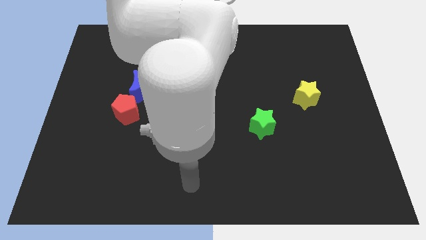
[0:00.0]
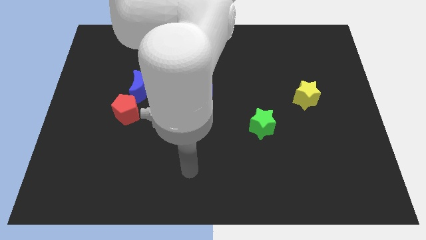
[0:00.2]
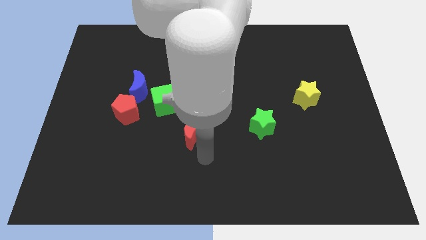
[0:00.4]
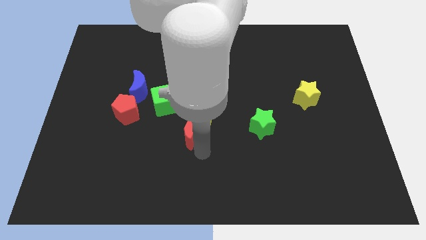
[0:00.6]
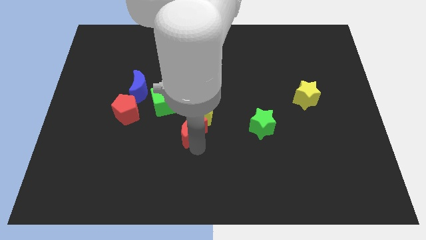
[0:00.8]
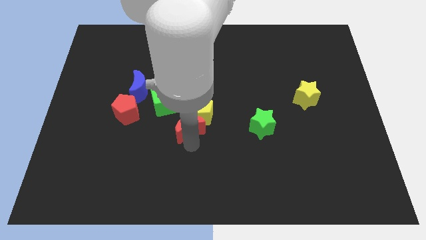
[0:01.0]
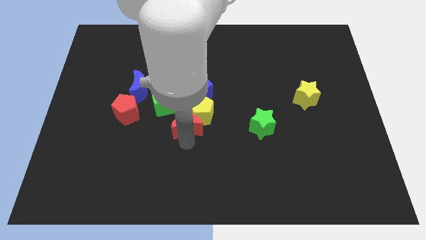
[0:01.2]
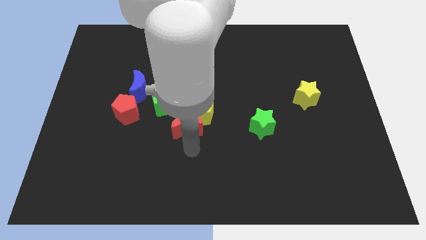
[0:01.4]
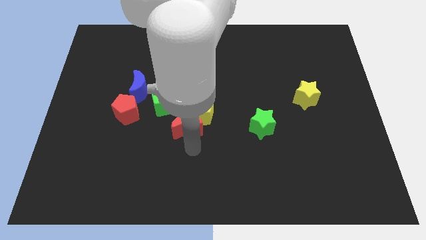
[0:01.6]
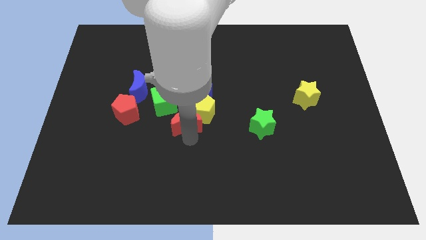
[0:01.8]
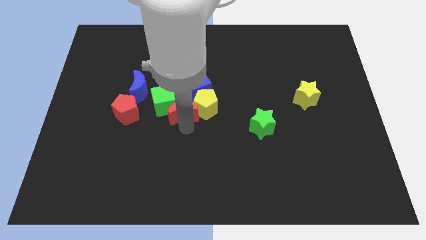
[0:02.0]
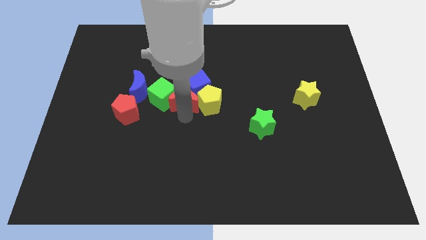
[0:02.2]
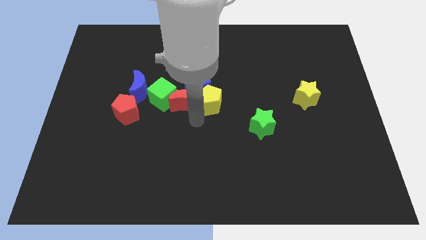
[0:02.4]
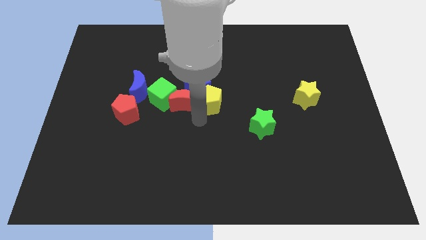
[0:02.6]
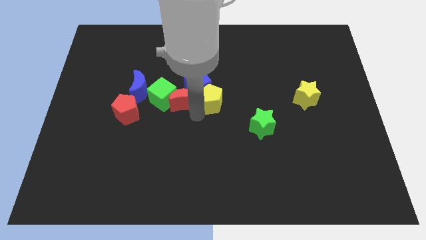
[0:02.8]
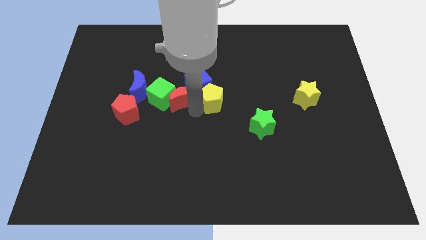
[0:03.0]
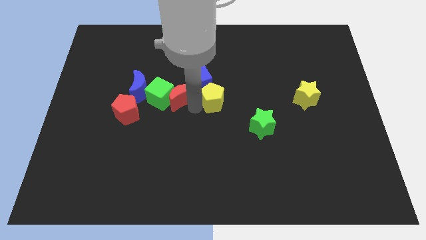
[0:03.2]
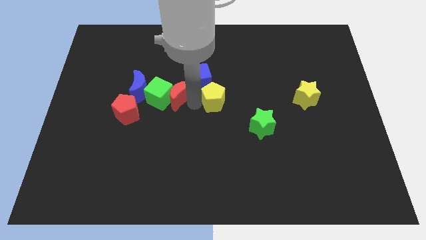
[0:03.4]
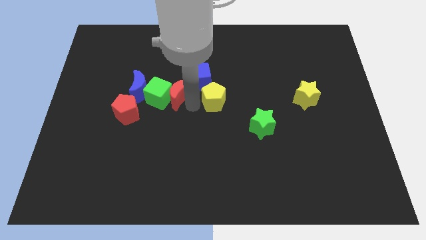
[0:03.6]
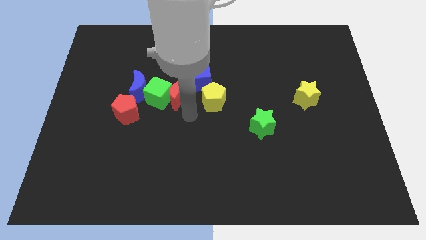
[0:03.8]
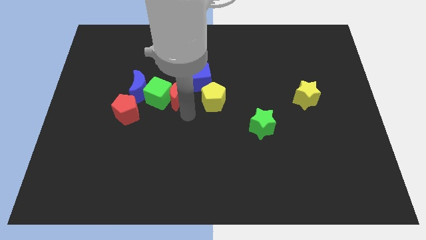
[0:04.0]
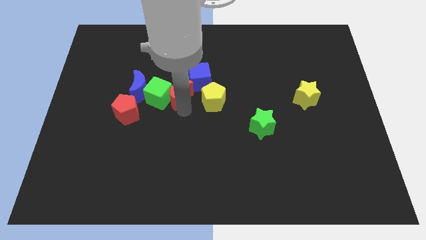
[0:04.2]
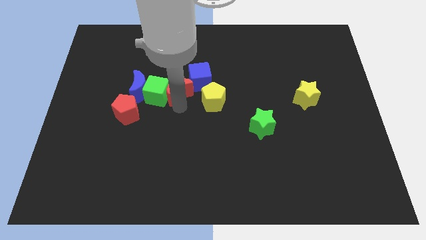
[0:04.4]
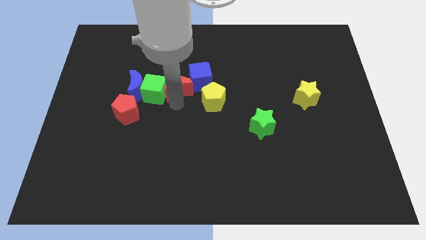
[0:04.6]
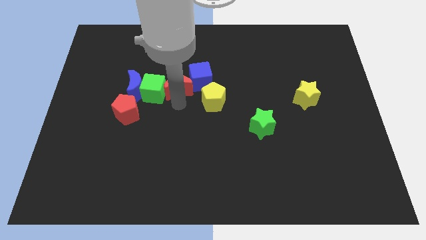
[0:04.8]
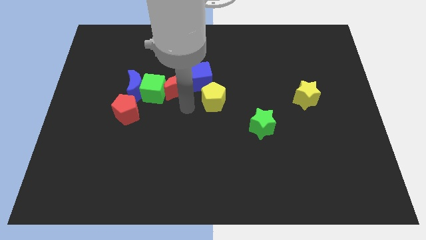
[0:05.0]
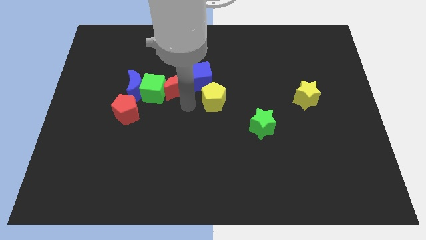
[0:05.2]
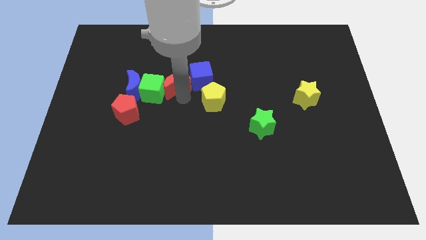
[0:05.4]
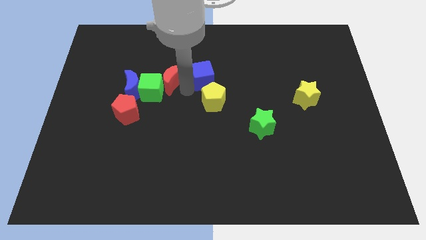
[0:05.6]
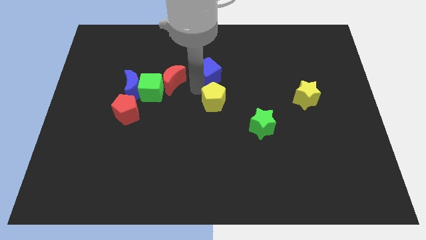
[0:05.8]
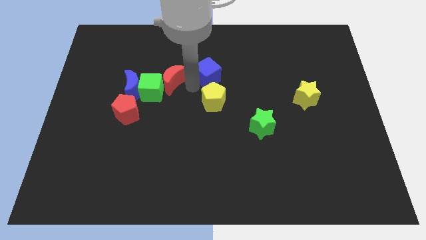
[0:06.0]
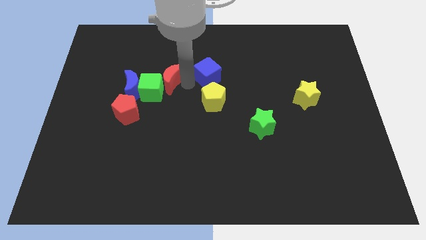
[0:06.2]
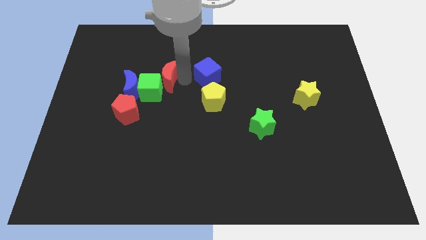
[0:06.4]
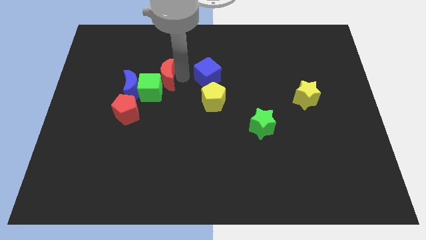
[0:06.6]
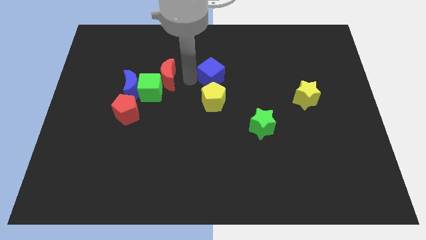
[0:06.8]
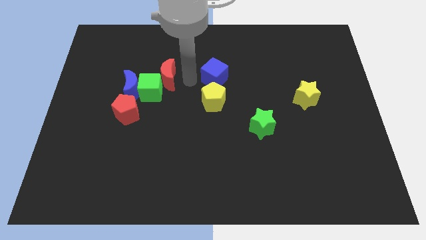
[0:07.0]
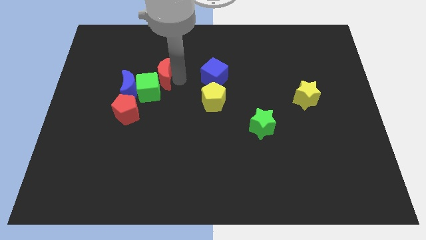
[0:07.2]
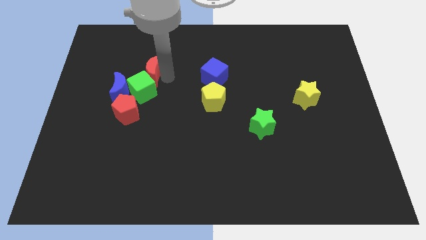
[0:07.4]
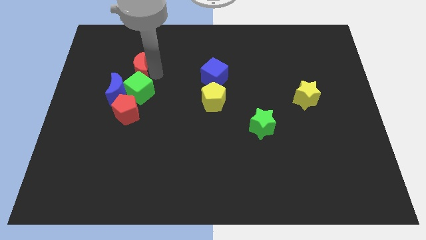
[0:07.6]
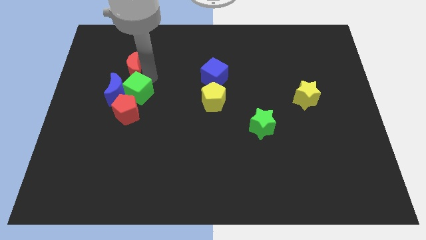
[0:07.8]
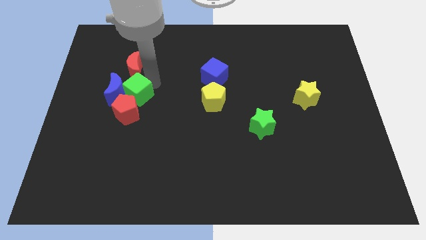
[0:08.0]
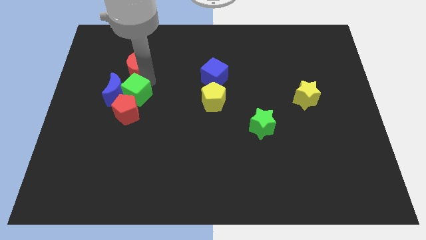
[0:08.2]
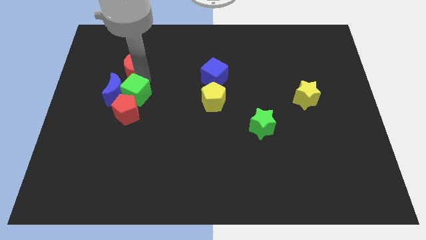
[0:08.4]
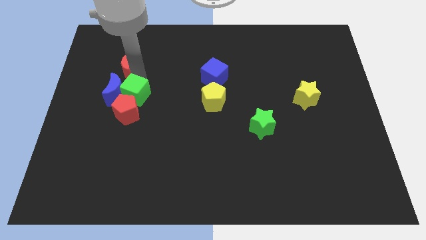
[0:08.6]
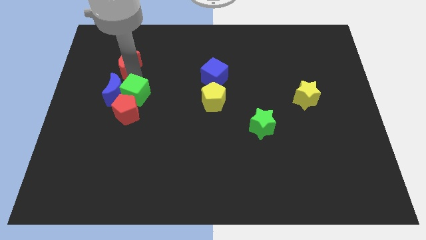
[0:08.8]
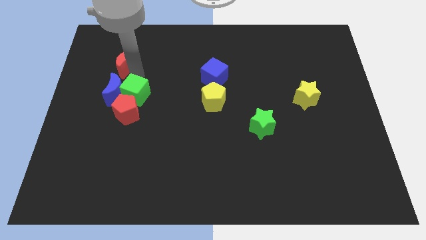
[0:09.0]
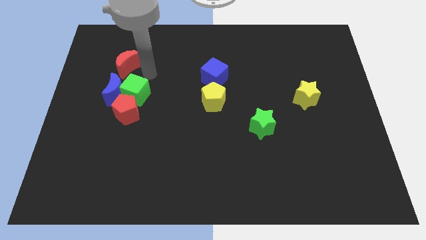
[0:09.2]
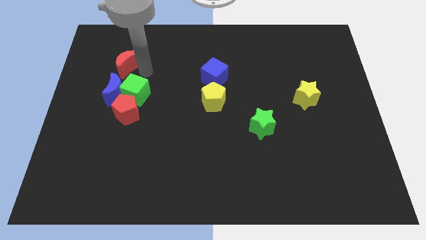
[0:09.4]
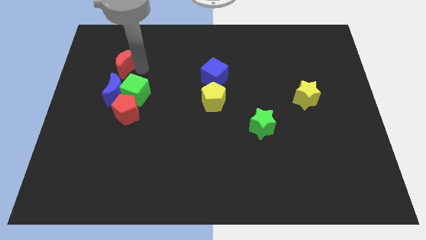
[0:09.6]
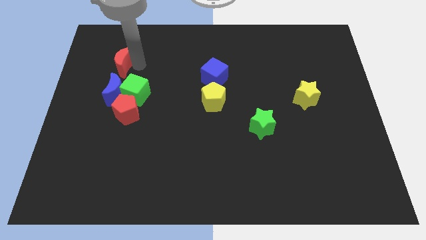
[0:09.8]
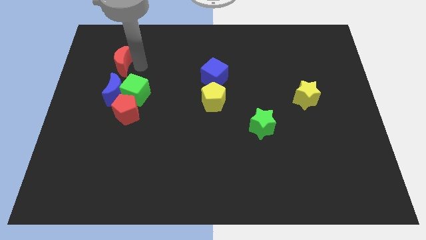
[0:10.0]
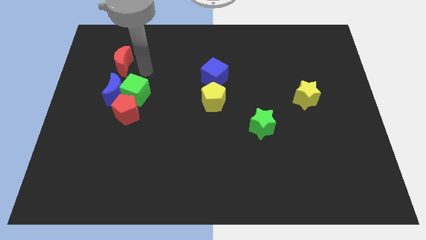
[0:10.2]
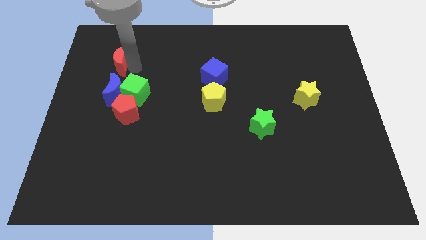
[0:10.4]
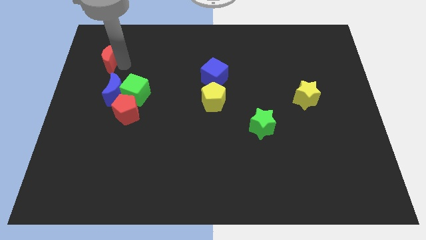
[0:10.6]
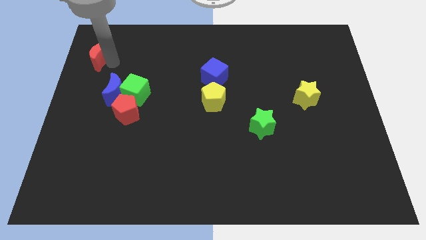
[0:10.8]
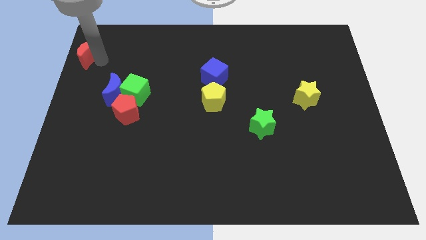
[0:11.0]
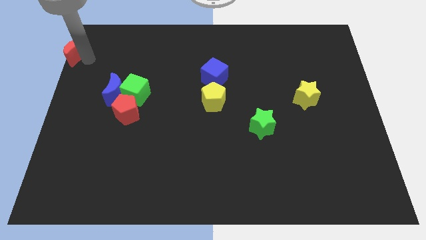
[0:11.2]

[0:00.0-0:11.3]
put the red moon to the upper left corner

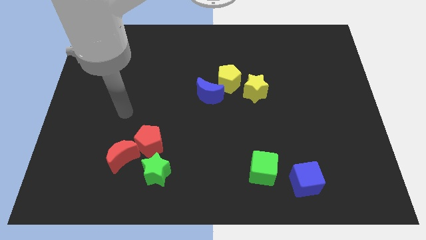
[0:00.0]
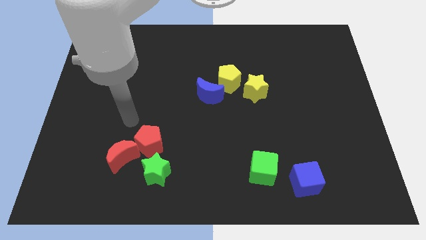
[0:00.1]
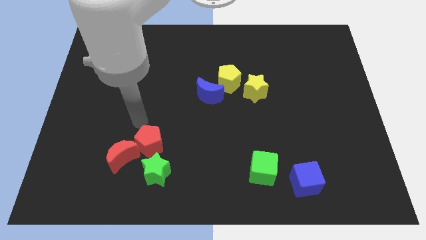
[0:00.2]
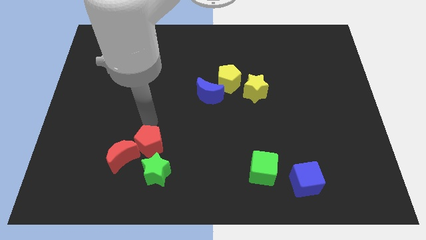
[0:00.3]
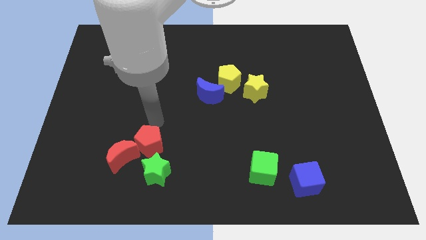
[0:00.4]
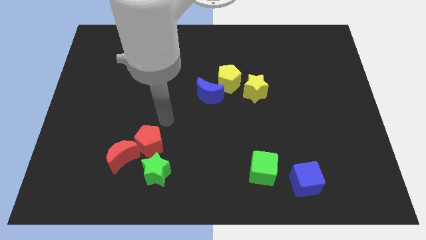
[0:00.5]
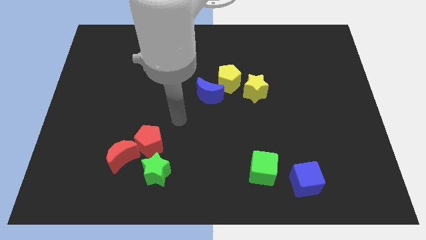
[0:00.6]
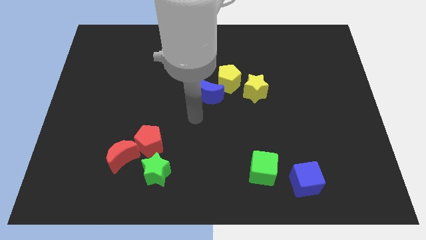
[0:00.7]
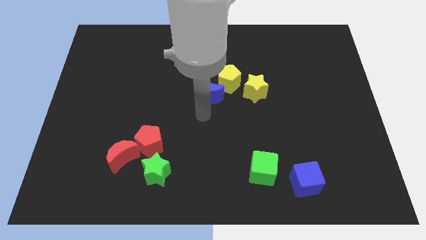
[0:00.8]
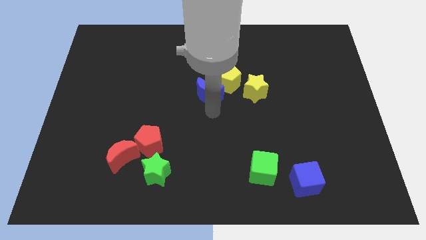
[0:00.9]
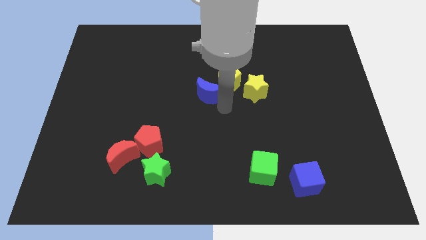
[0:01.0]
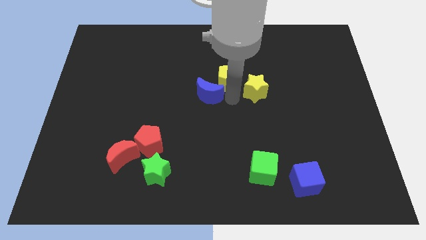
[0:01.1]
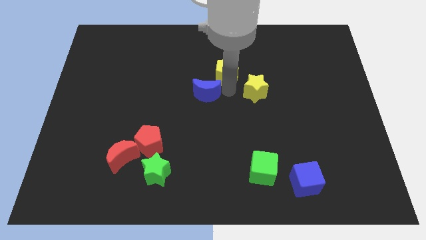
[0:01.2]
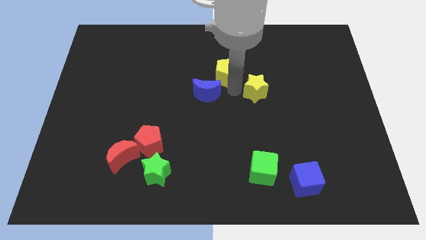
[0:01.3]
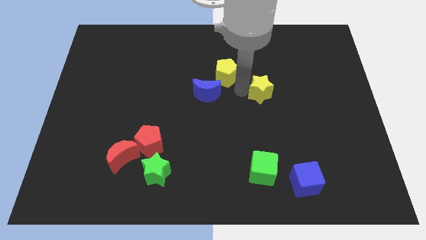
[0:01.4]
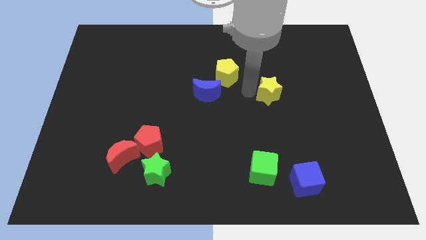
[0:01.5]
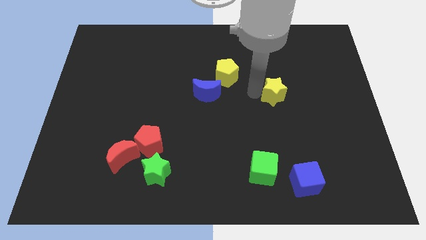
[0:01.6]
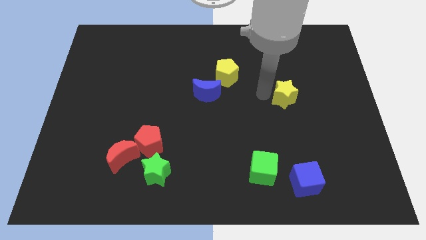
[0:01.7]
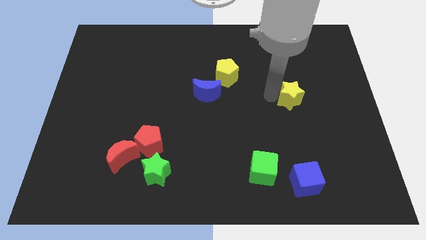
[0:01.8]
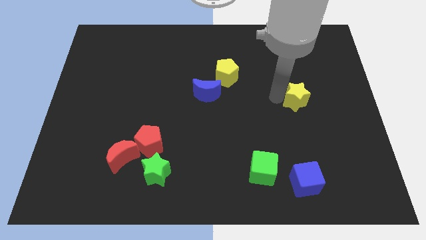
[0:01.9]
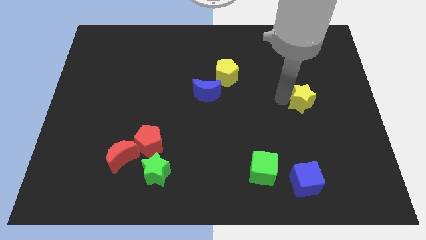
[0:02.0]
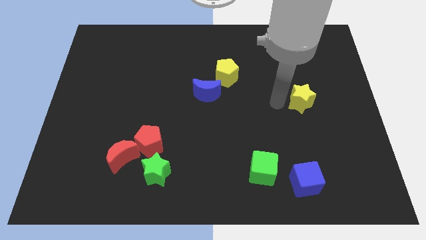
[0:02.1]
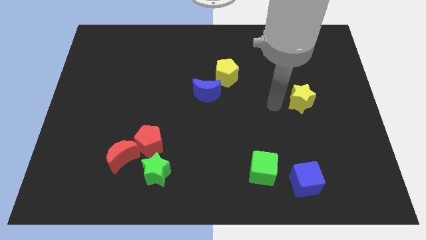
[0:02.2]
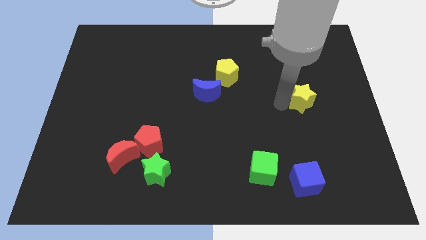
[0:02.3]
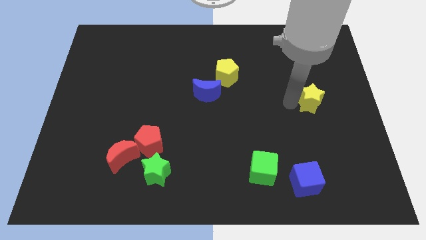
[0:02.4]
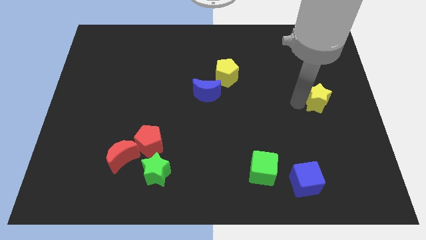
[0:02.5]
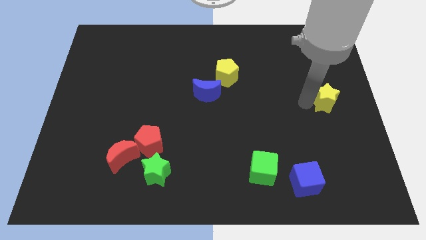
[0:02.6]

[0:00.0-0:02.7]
move the yellow star to the center right
